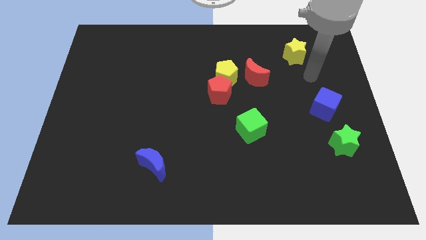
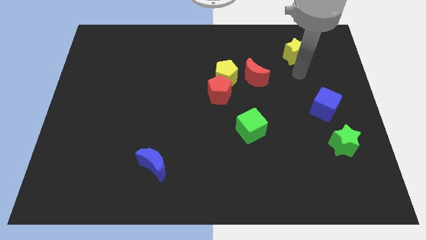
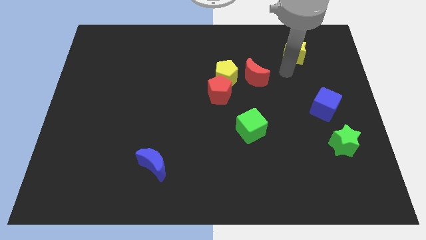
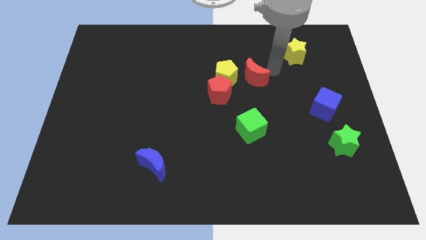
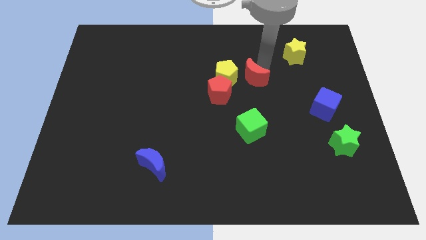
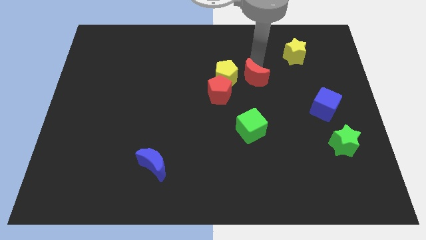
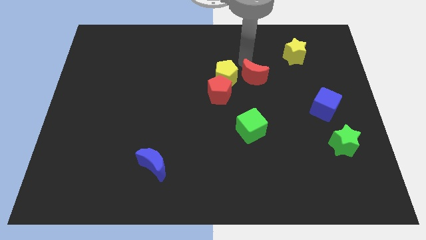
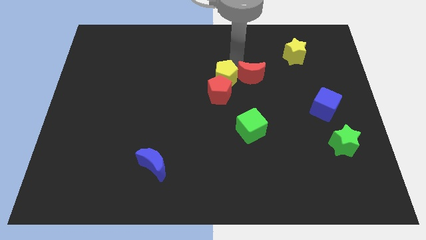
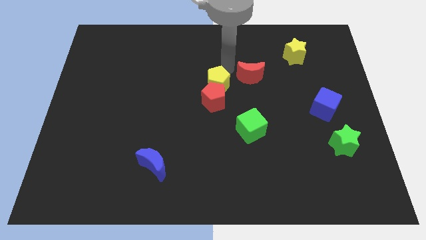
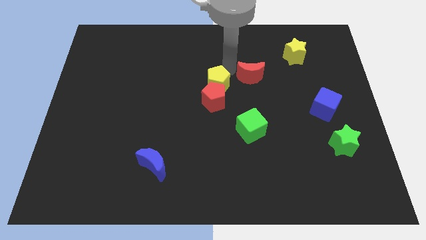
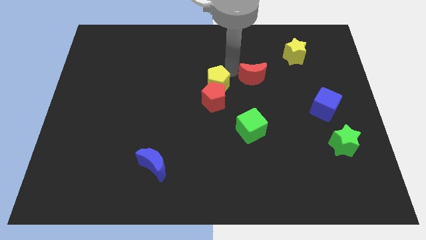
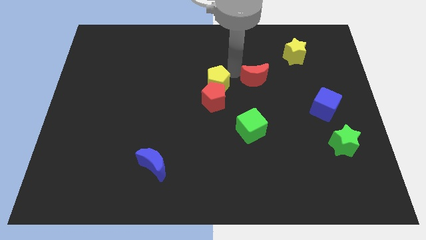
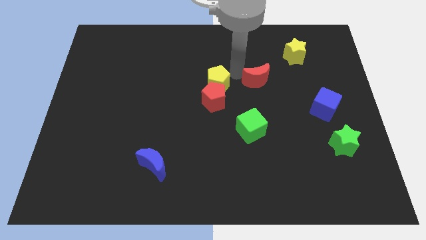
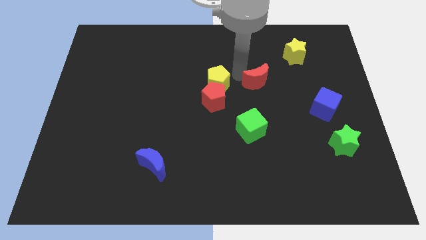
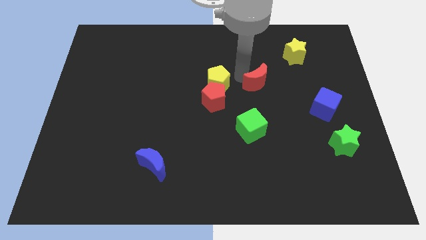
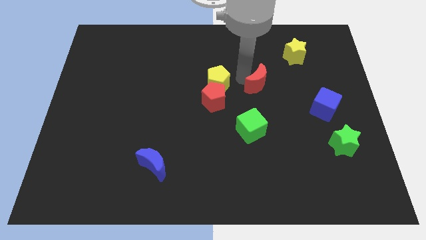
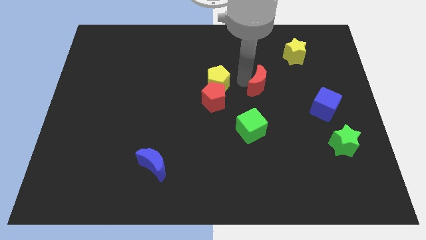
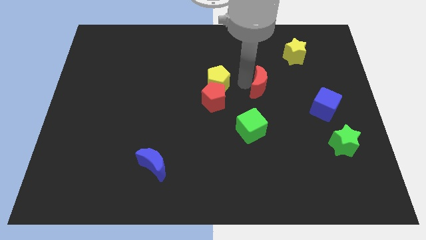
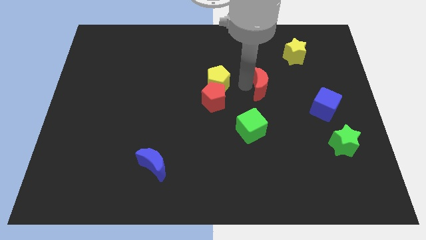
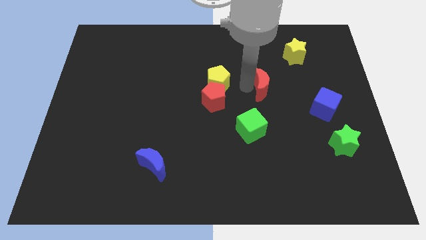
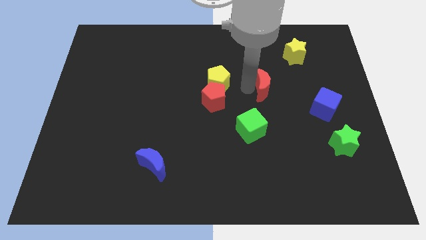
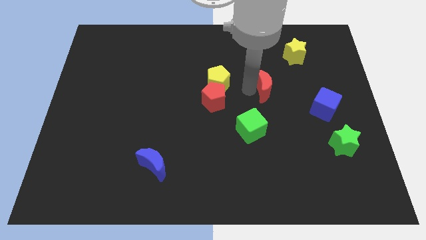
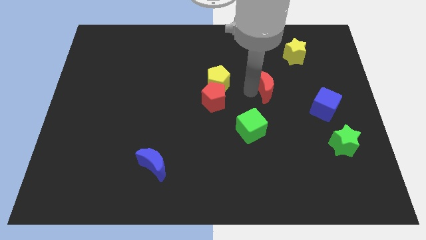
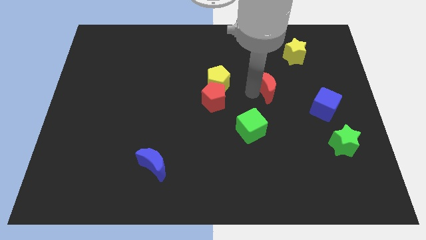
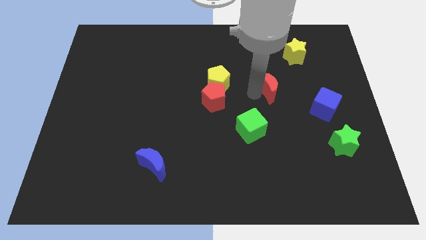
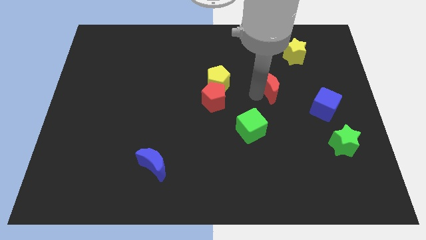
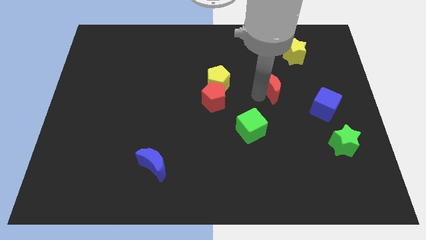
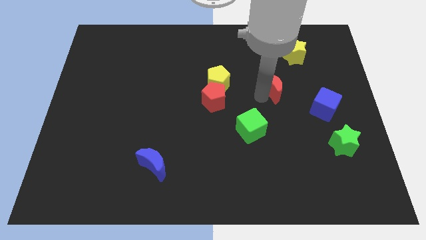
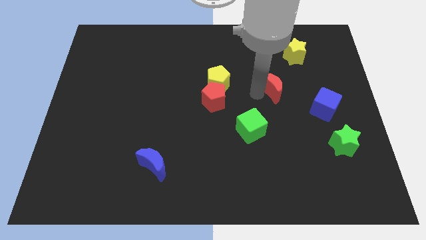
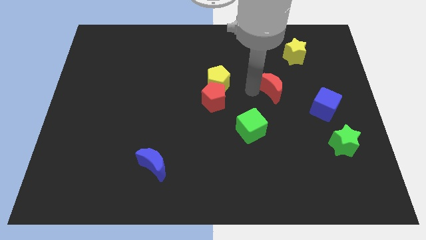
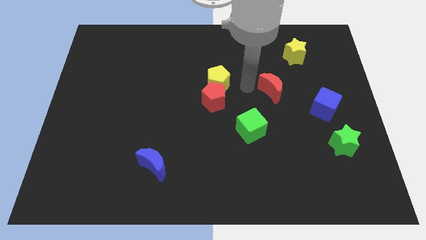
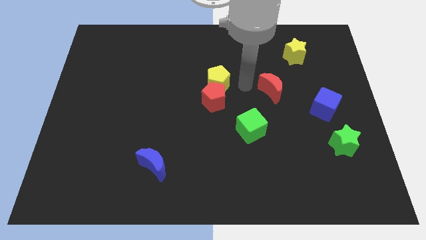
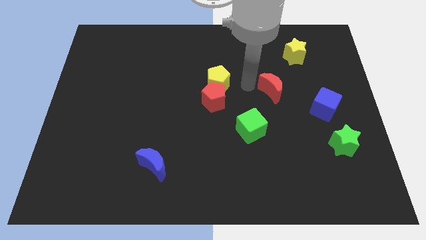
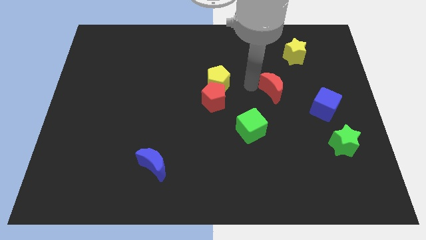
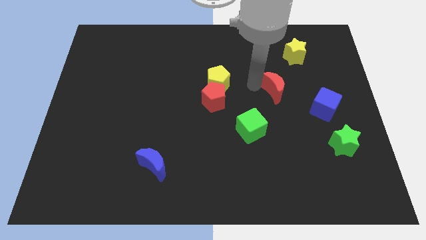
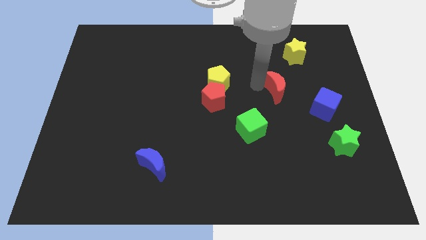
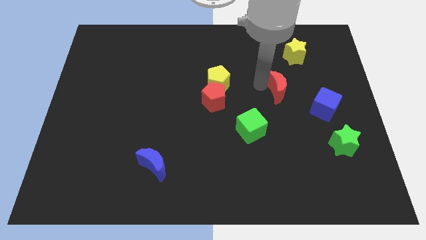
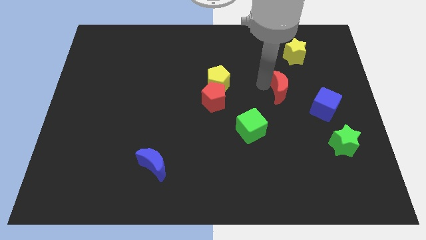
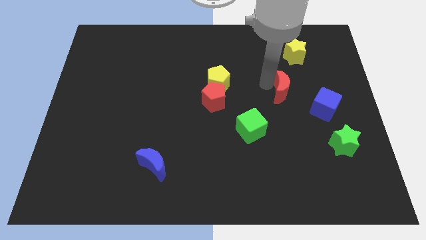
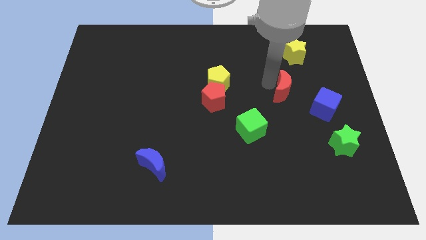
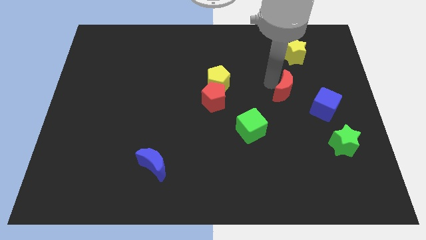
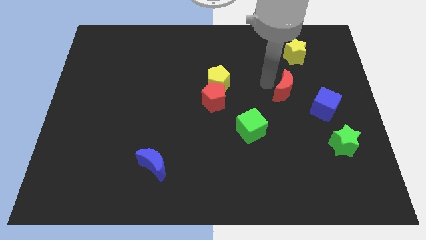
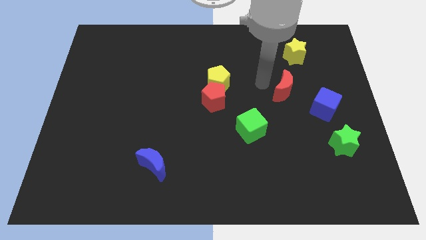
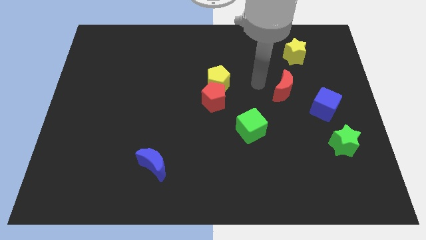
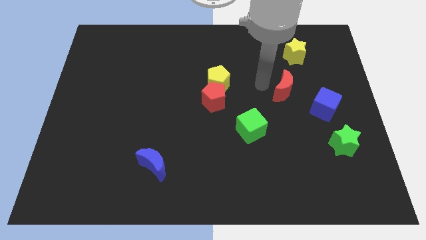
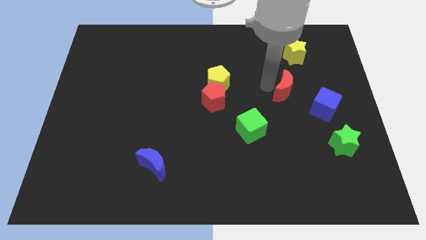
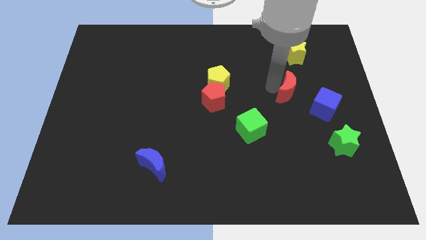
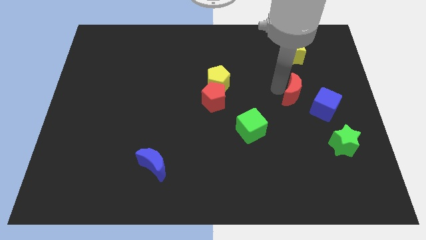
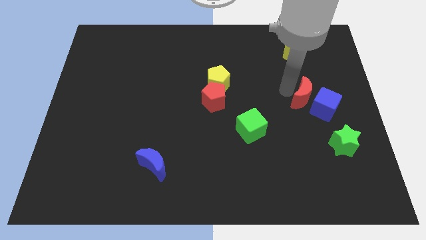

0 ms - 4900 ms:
push the red moon to the blue cube

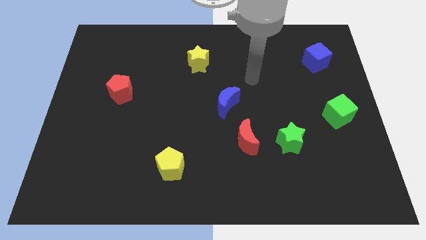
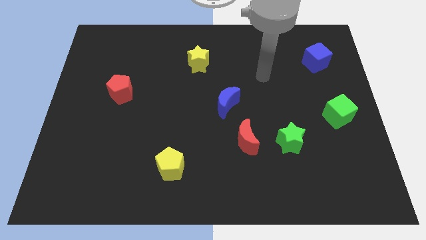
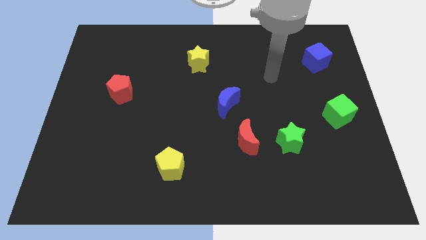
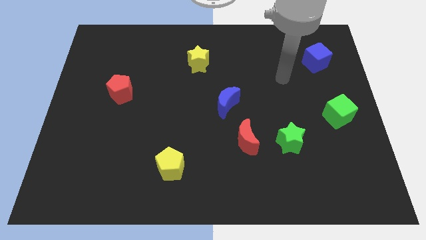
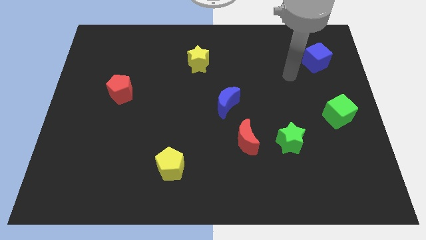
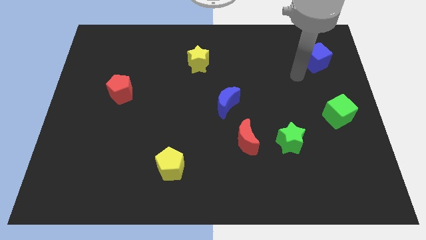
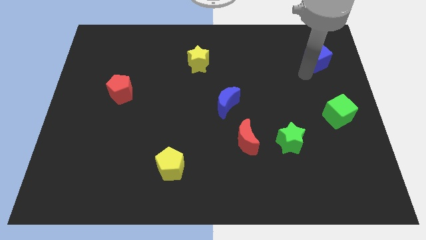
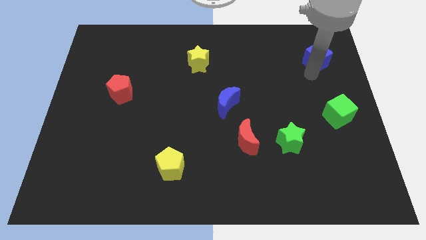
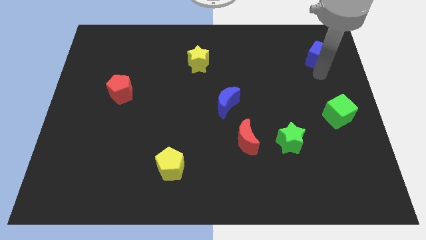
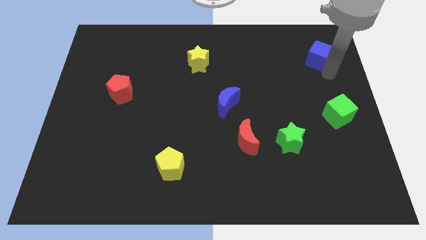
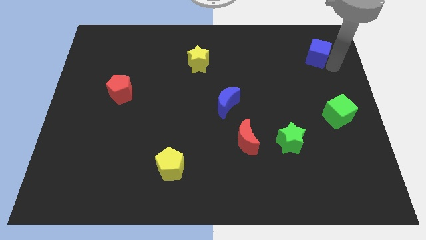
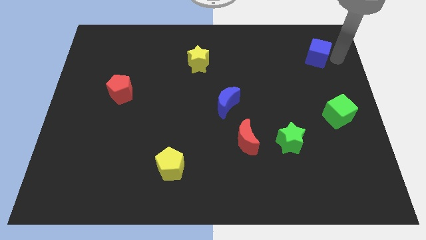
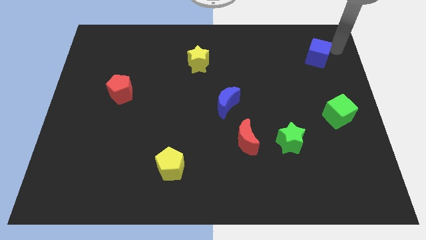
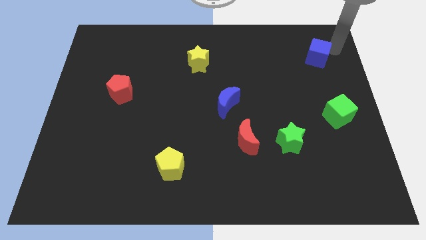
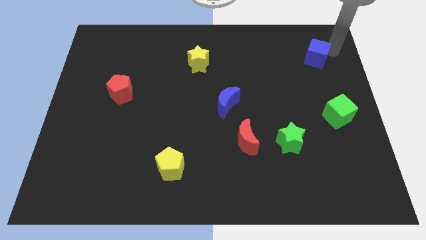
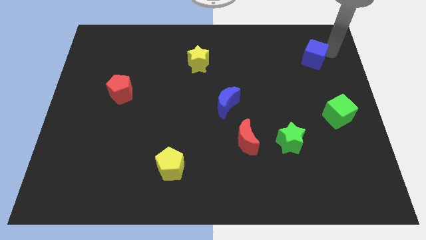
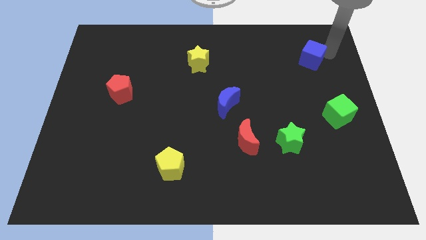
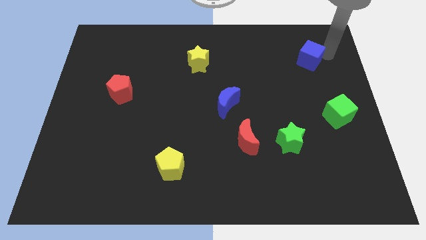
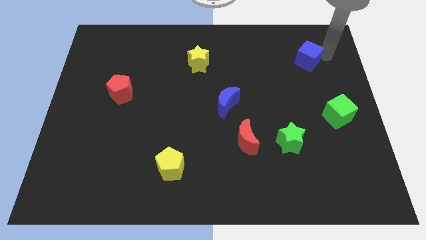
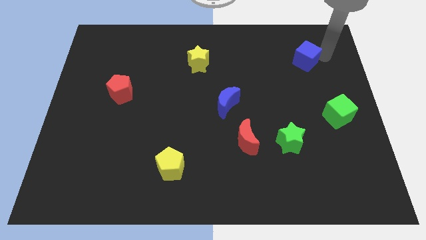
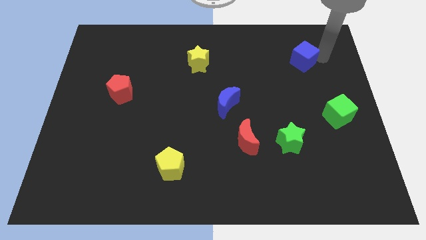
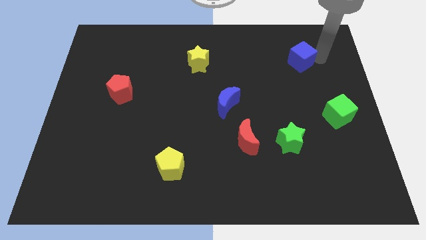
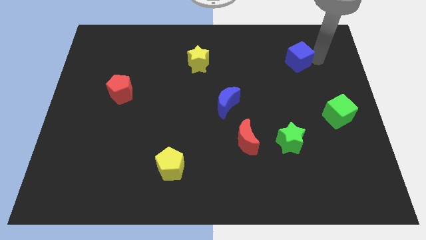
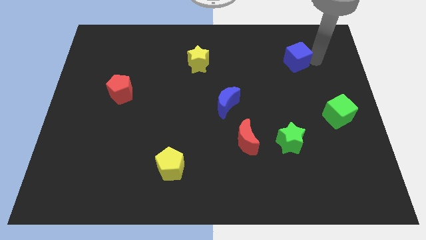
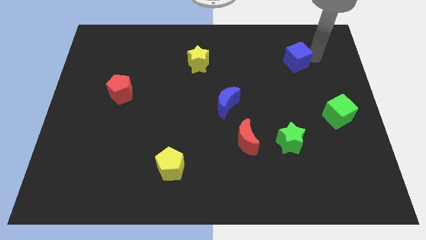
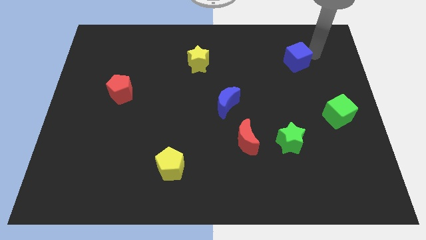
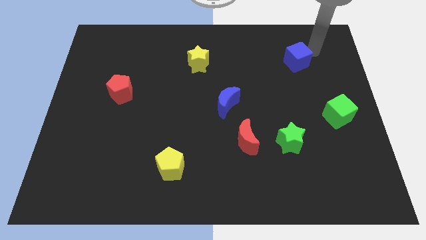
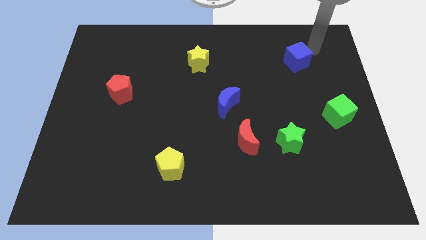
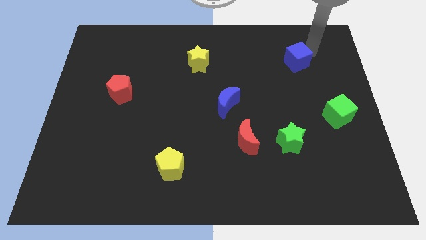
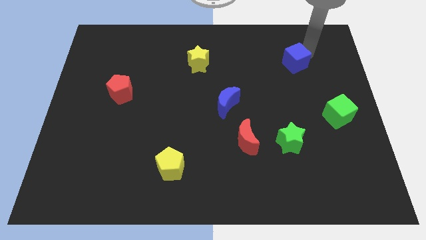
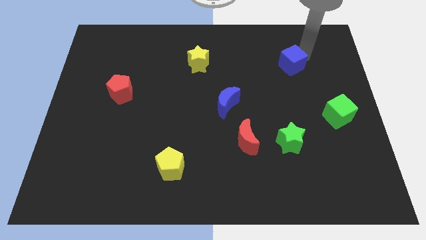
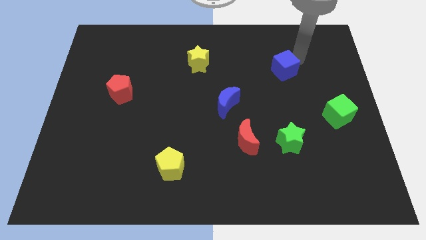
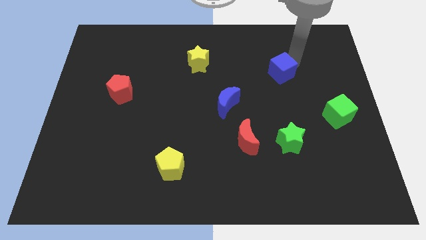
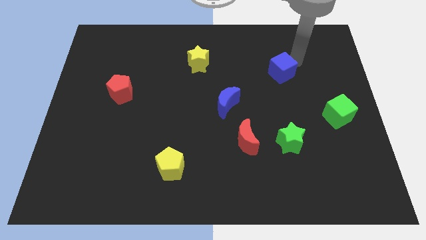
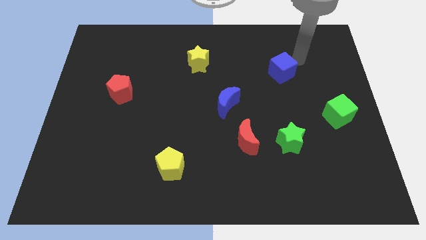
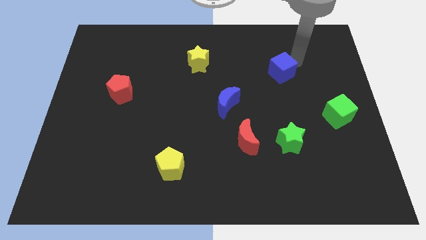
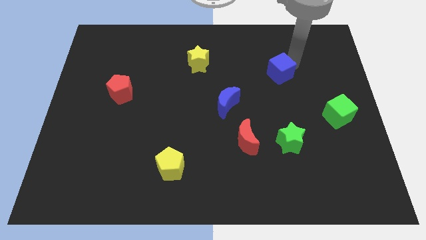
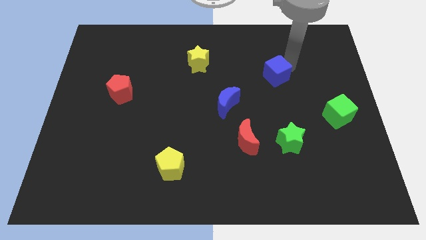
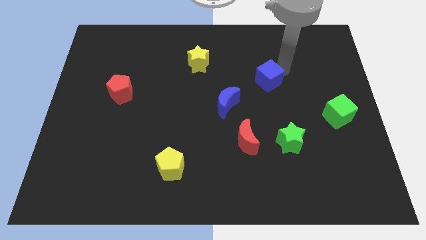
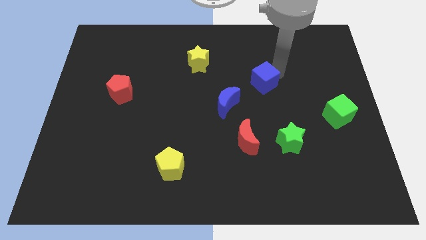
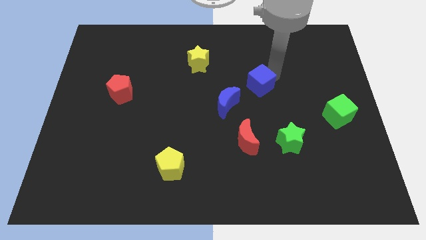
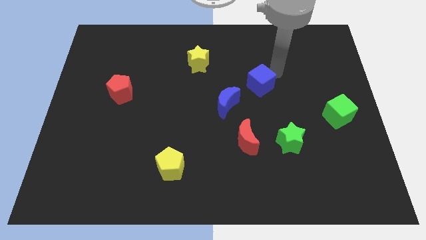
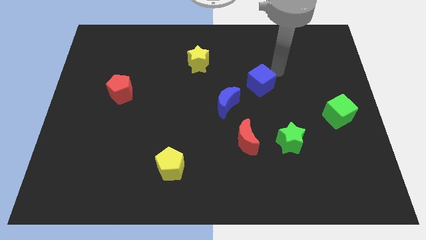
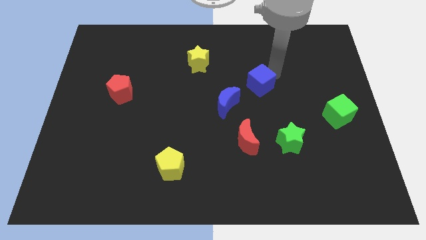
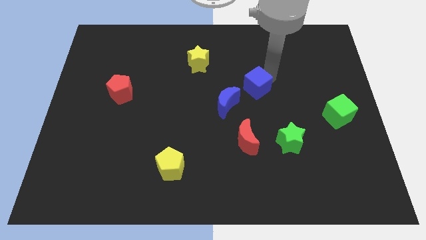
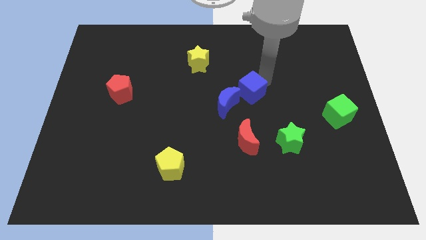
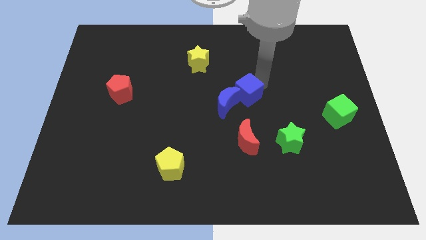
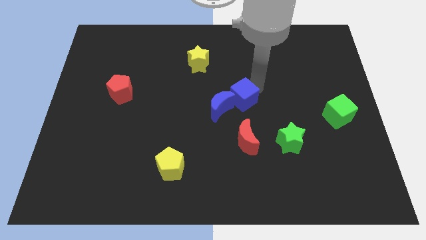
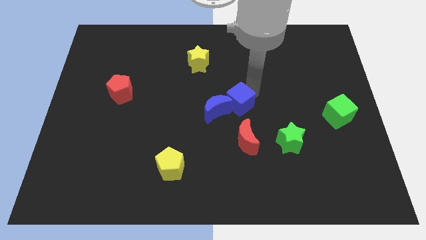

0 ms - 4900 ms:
slide the blue cube close to the blue moon
